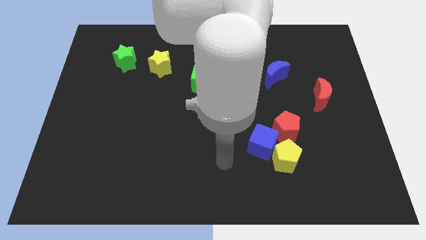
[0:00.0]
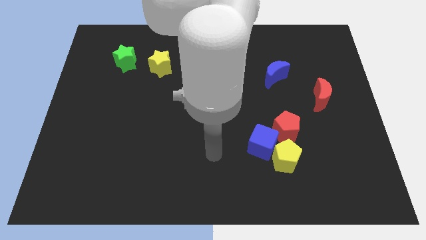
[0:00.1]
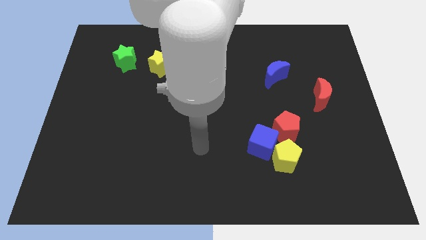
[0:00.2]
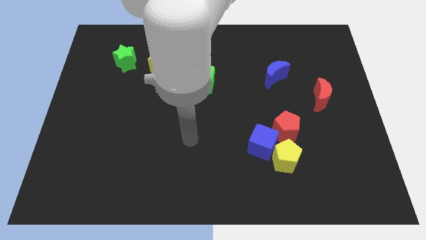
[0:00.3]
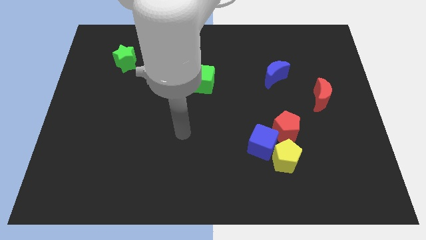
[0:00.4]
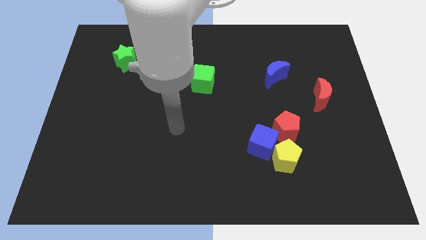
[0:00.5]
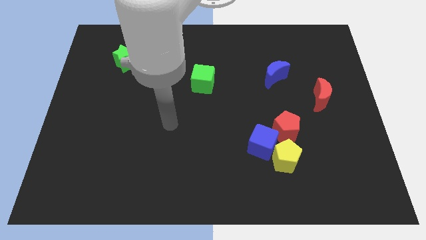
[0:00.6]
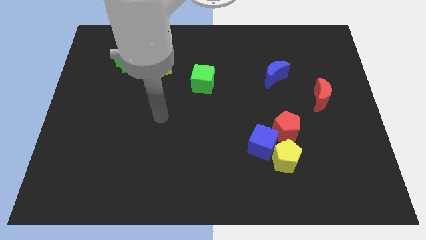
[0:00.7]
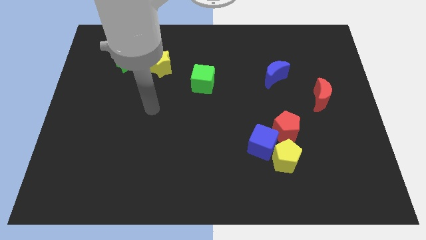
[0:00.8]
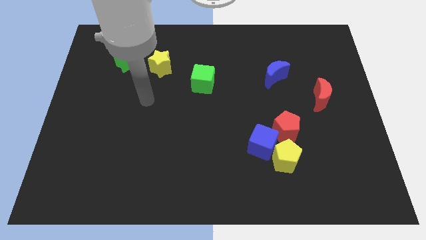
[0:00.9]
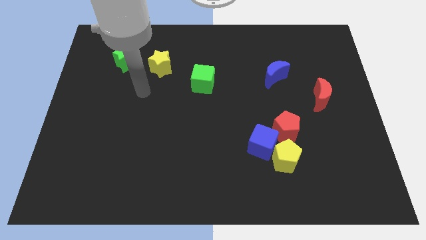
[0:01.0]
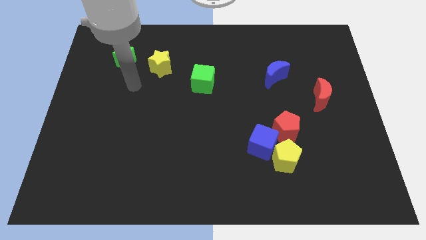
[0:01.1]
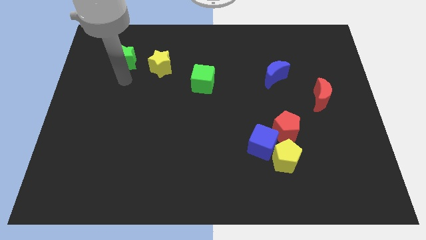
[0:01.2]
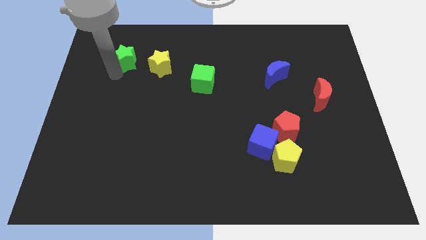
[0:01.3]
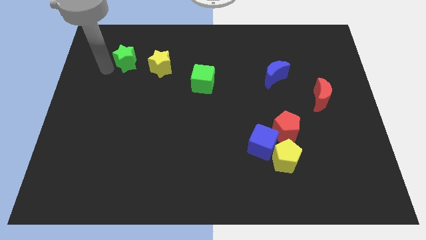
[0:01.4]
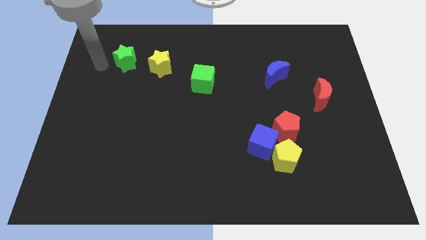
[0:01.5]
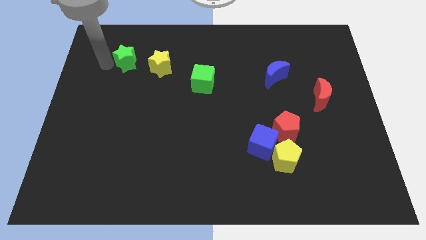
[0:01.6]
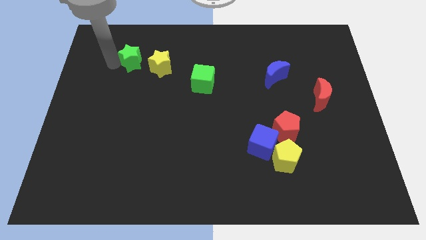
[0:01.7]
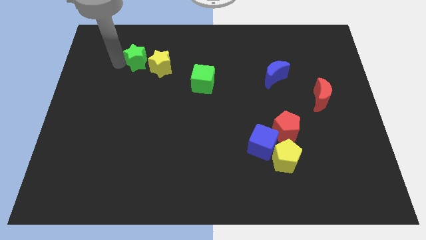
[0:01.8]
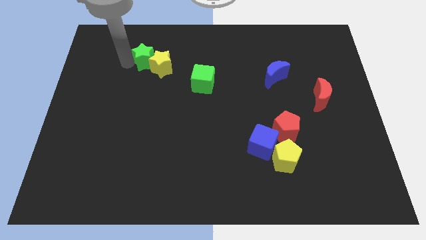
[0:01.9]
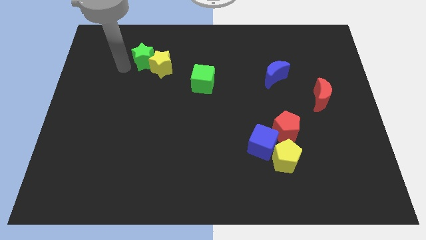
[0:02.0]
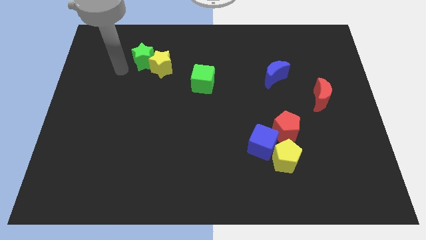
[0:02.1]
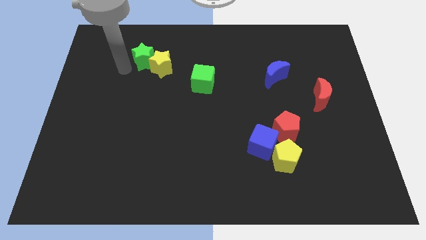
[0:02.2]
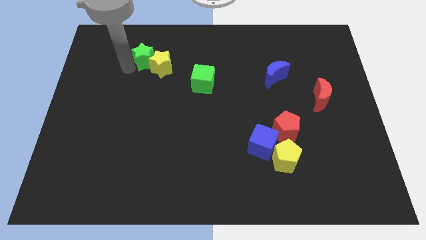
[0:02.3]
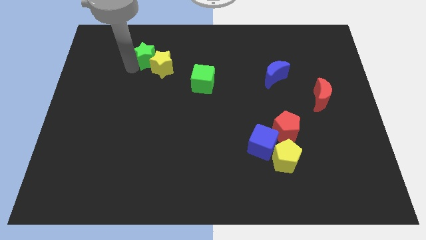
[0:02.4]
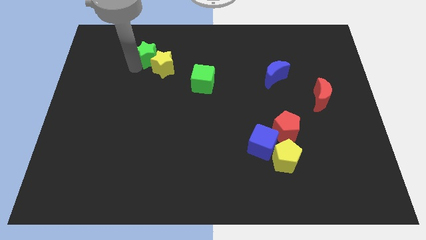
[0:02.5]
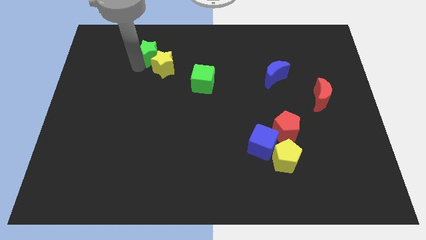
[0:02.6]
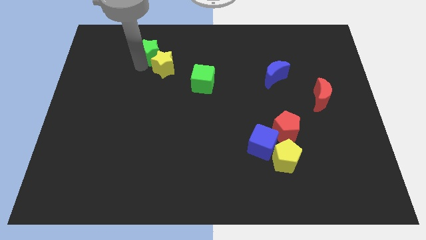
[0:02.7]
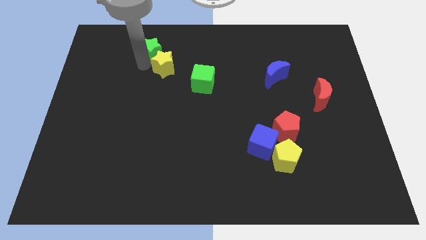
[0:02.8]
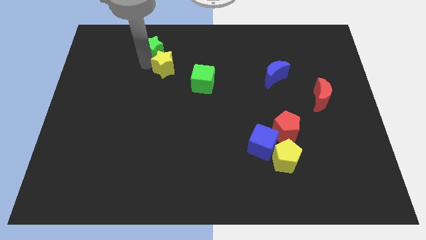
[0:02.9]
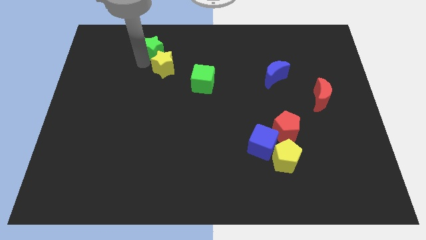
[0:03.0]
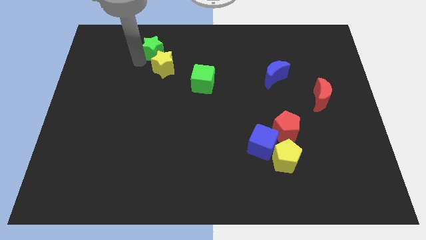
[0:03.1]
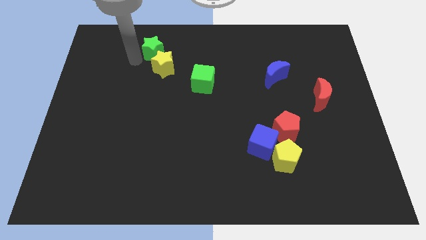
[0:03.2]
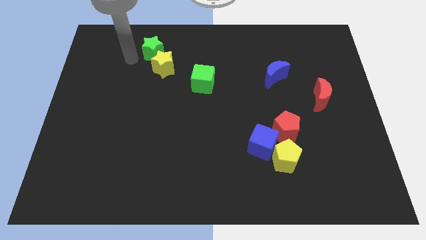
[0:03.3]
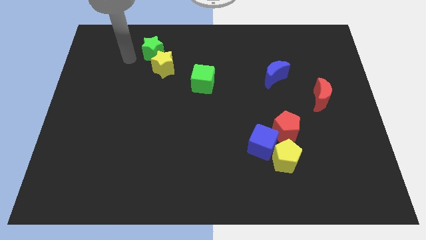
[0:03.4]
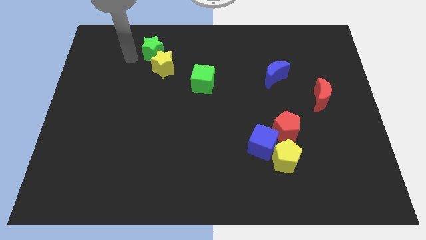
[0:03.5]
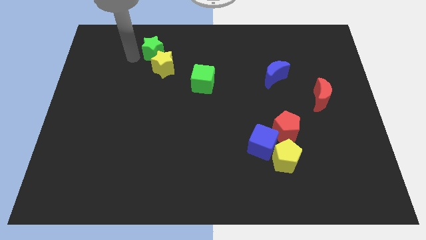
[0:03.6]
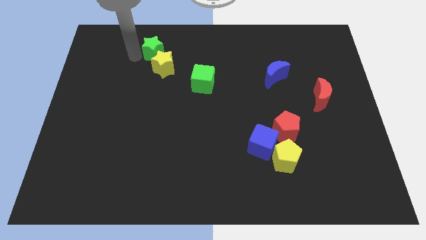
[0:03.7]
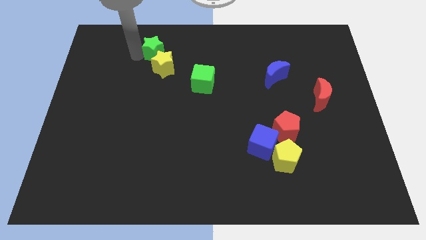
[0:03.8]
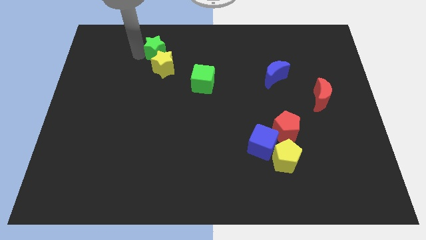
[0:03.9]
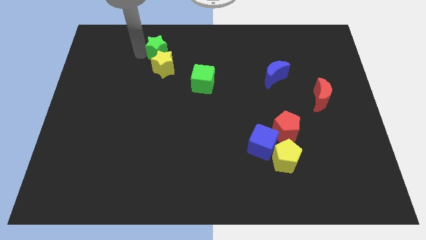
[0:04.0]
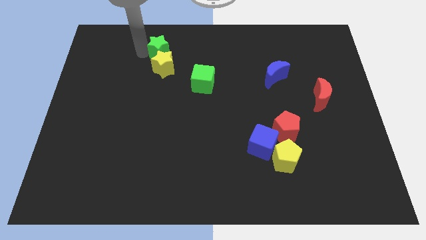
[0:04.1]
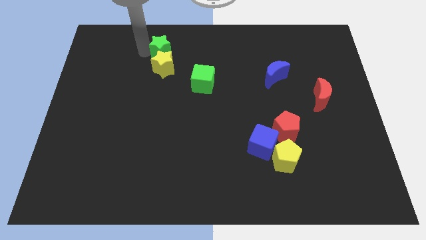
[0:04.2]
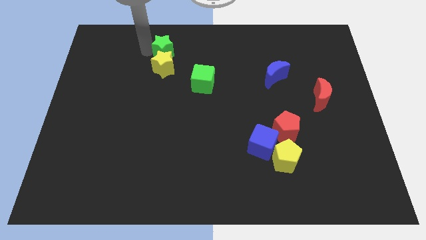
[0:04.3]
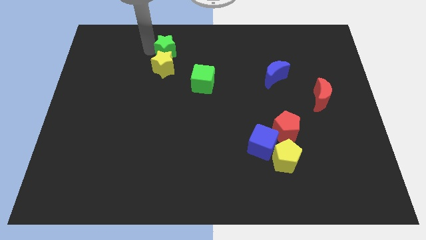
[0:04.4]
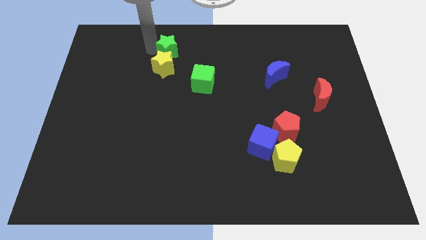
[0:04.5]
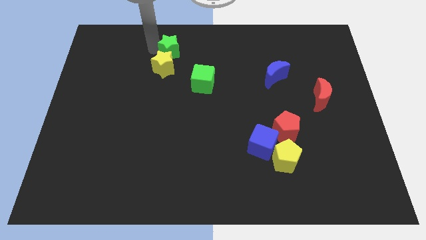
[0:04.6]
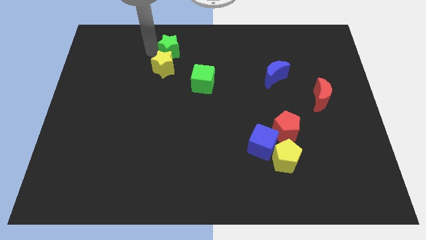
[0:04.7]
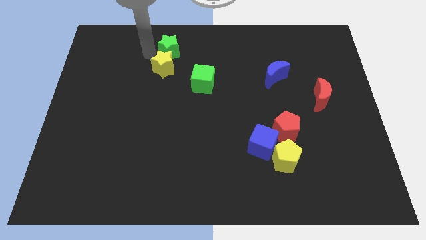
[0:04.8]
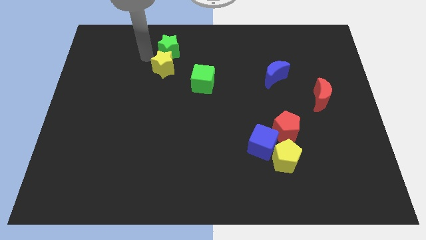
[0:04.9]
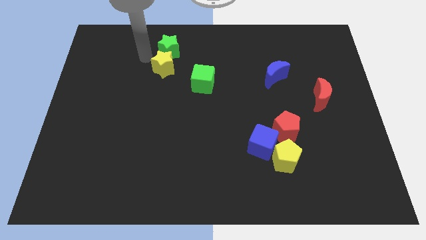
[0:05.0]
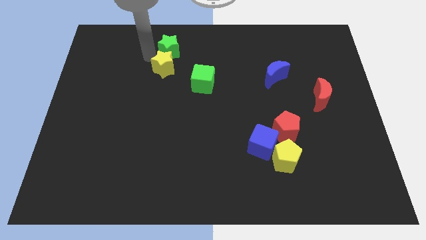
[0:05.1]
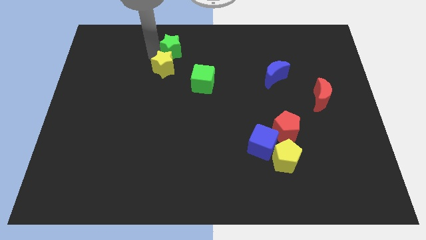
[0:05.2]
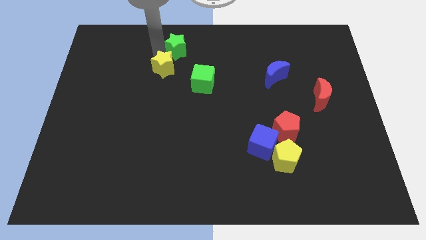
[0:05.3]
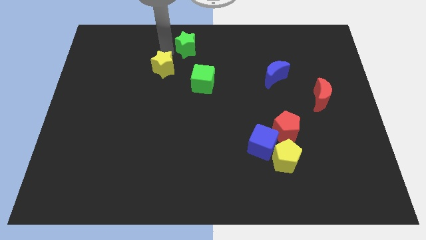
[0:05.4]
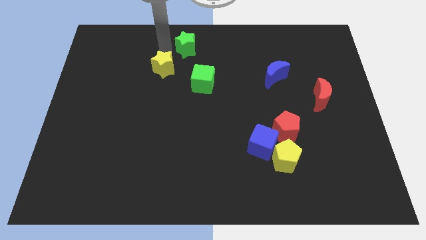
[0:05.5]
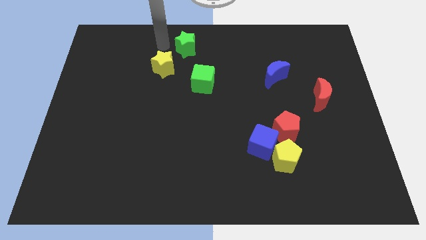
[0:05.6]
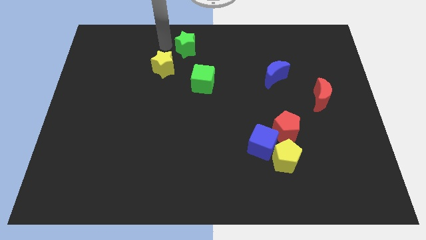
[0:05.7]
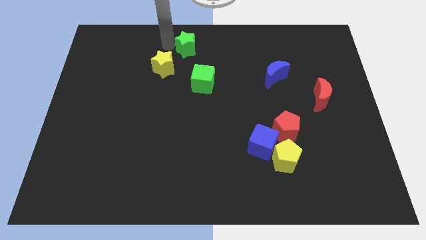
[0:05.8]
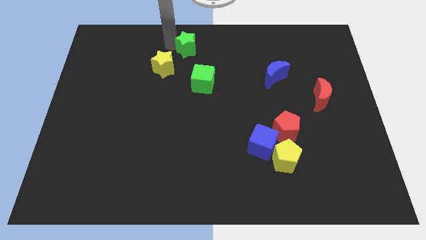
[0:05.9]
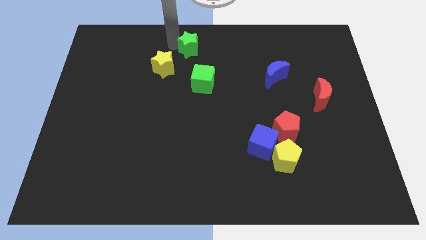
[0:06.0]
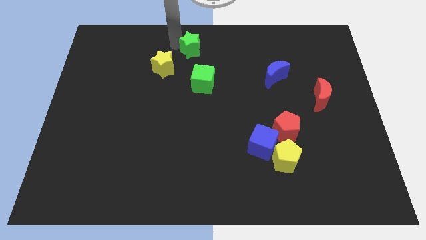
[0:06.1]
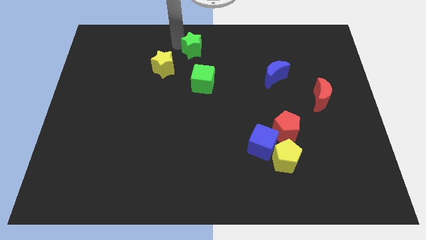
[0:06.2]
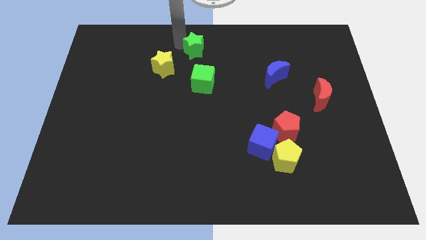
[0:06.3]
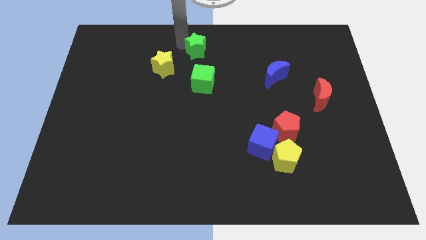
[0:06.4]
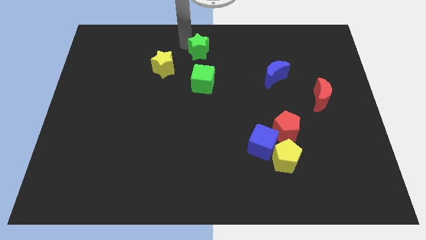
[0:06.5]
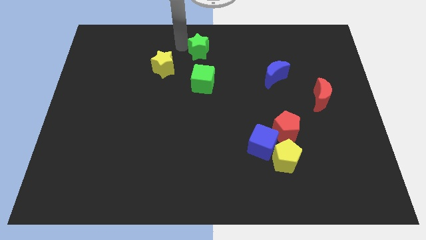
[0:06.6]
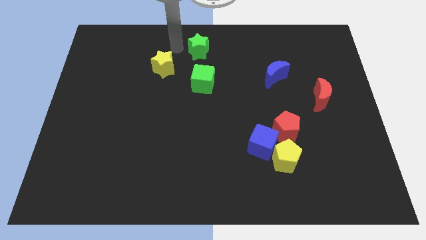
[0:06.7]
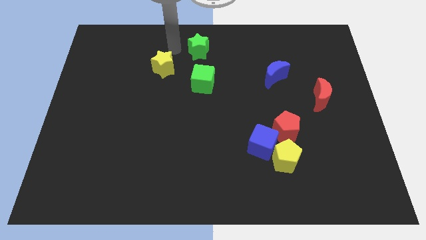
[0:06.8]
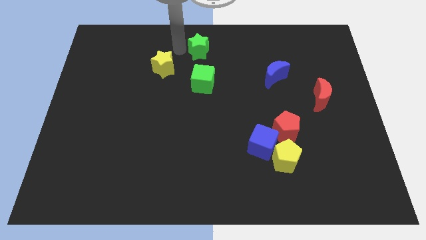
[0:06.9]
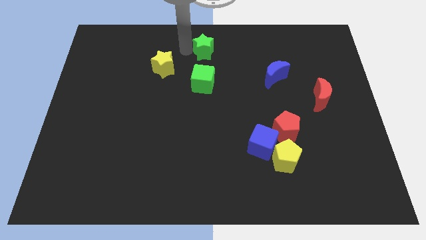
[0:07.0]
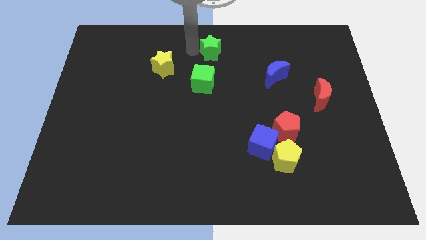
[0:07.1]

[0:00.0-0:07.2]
slide the green star to the right

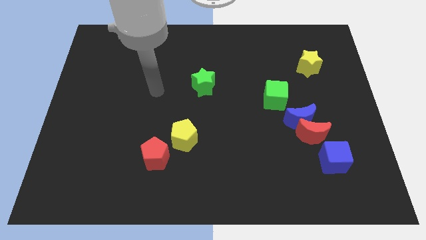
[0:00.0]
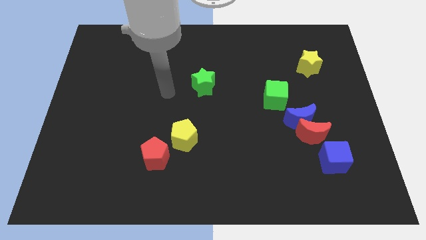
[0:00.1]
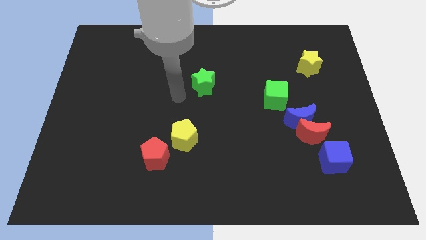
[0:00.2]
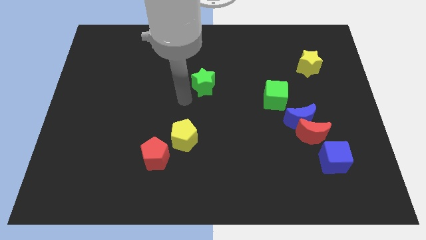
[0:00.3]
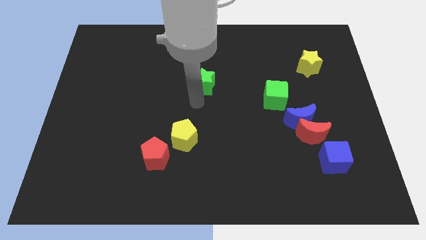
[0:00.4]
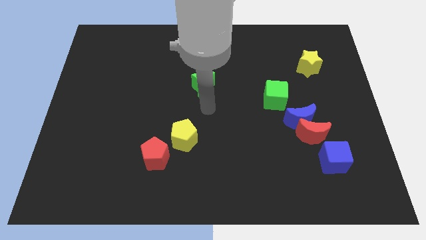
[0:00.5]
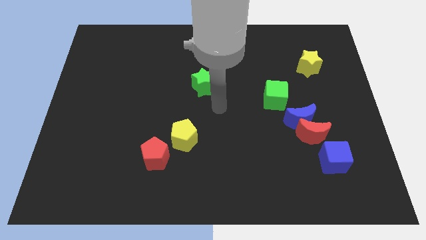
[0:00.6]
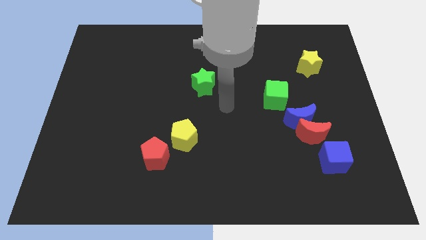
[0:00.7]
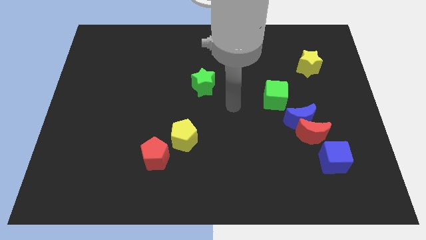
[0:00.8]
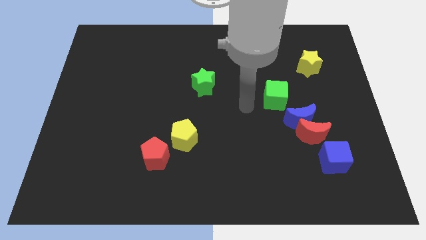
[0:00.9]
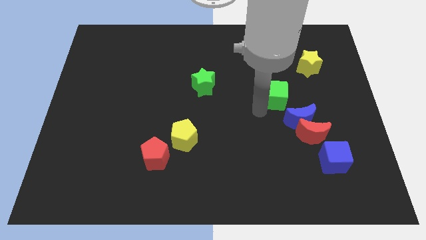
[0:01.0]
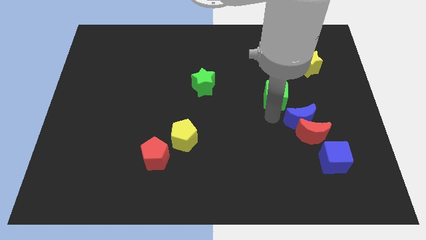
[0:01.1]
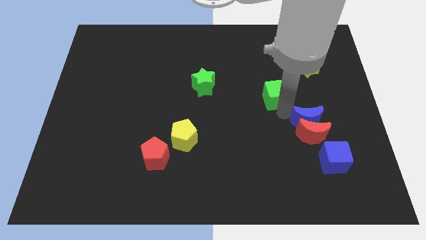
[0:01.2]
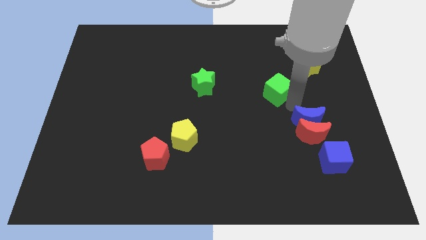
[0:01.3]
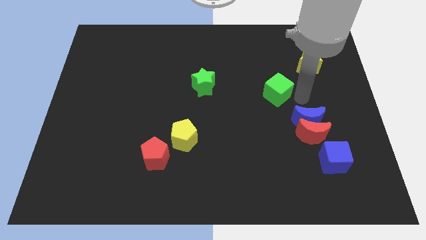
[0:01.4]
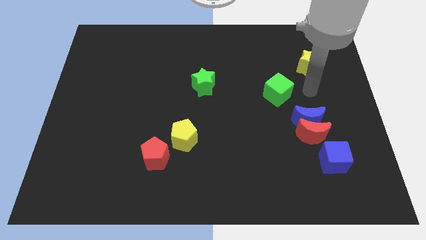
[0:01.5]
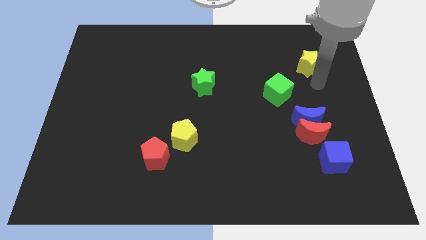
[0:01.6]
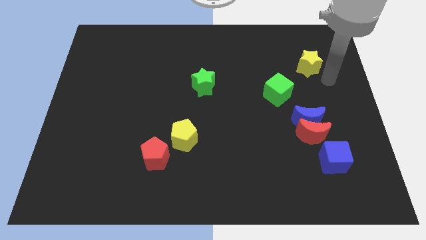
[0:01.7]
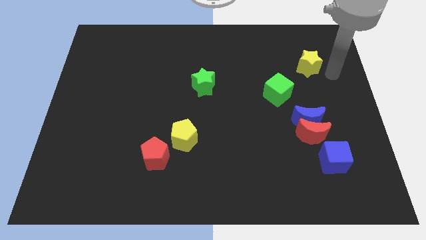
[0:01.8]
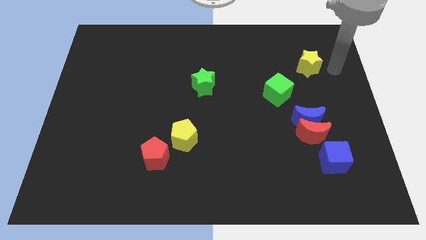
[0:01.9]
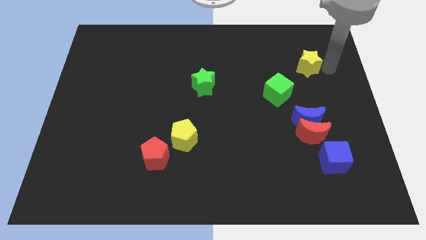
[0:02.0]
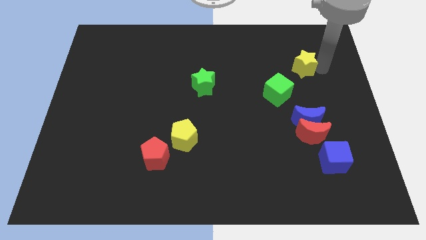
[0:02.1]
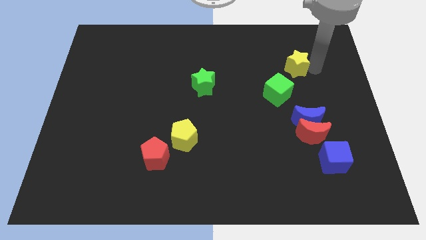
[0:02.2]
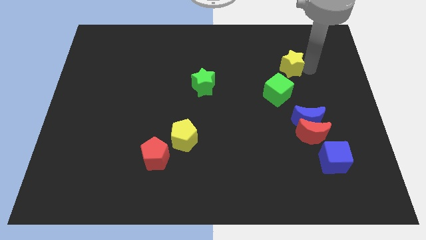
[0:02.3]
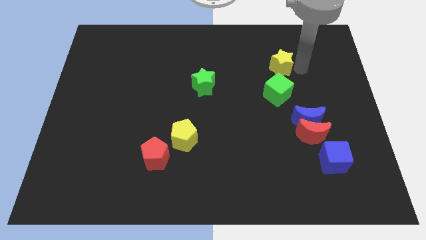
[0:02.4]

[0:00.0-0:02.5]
push the yellow star a little bit to the left
